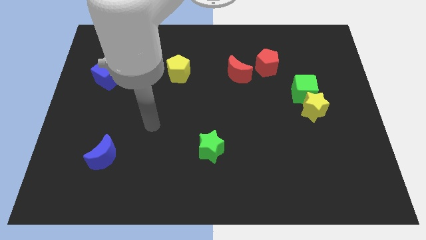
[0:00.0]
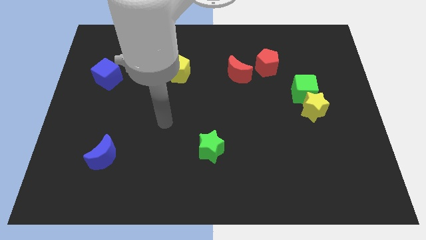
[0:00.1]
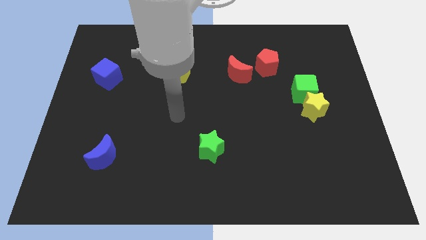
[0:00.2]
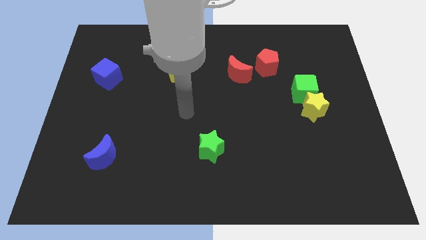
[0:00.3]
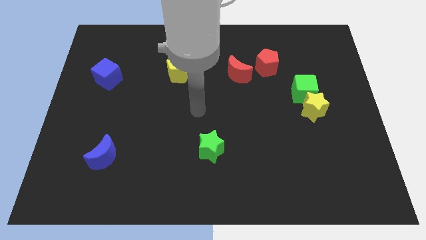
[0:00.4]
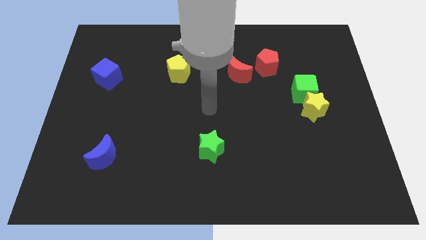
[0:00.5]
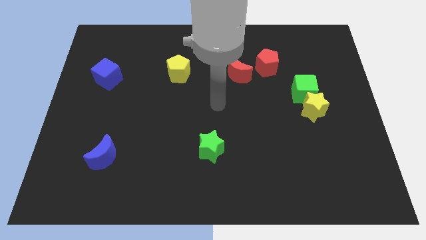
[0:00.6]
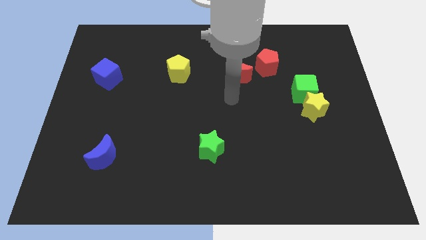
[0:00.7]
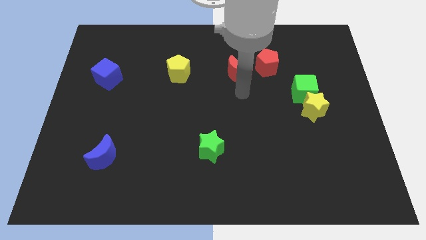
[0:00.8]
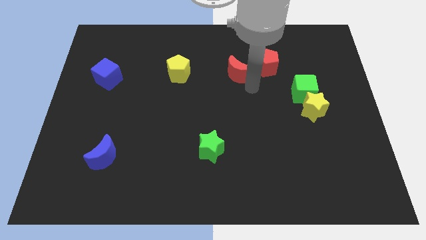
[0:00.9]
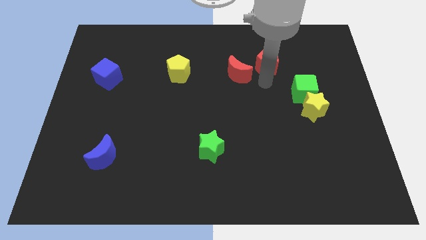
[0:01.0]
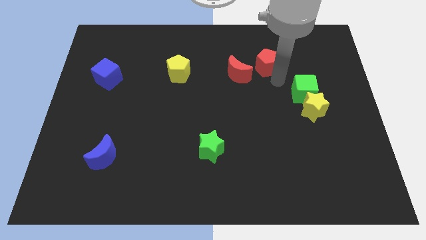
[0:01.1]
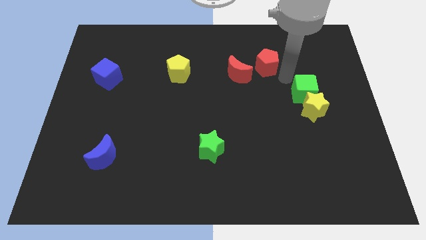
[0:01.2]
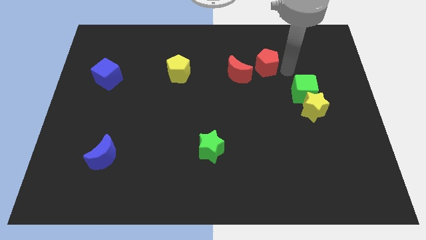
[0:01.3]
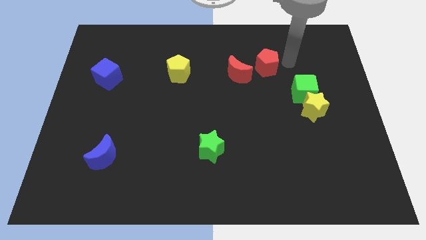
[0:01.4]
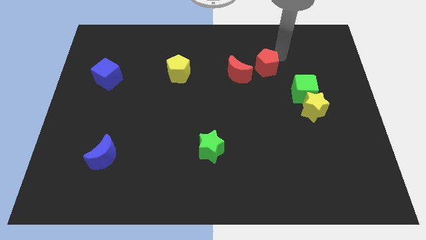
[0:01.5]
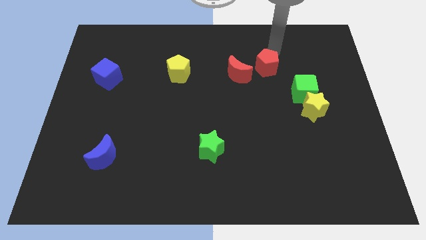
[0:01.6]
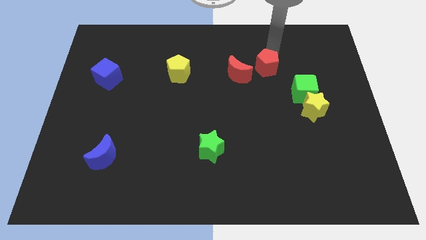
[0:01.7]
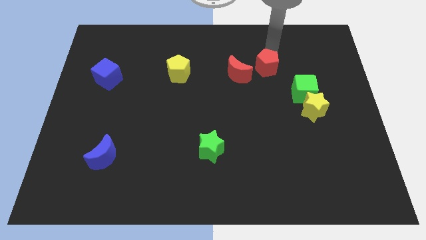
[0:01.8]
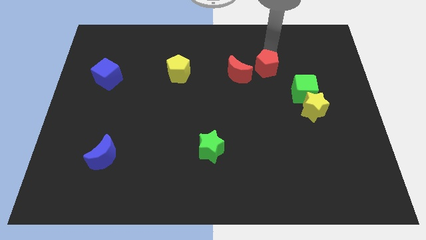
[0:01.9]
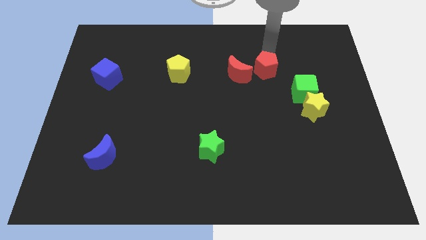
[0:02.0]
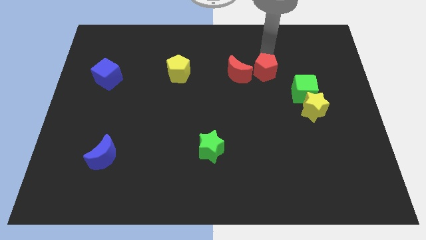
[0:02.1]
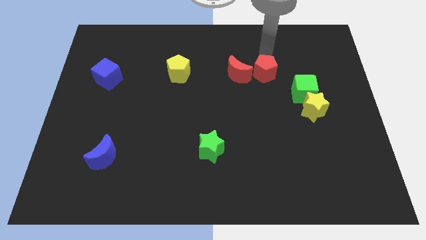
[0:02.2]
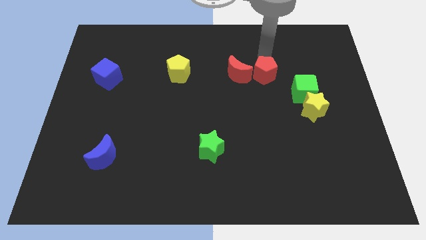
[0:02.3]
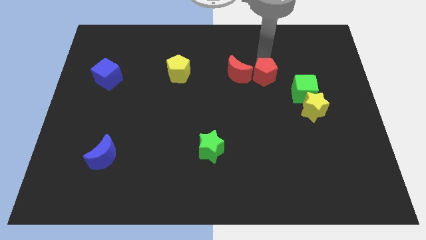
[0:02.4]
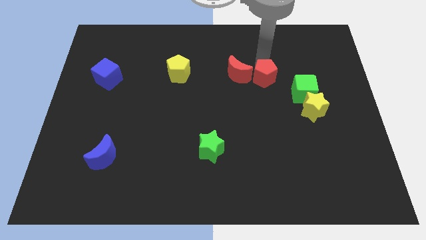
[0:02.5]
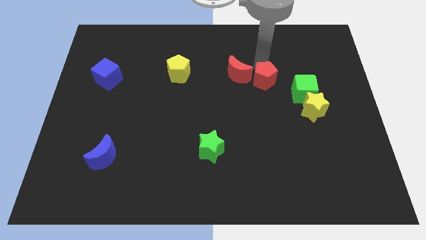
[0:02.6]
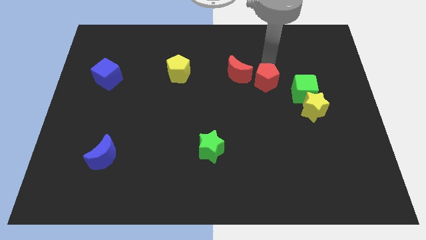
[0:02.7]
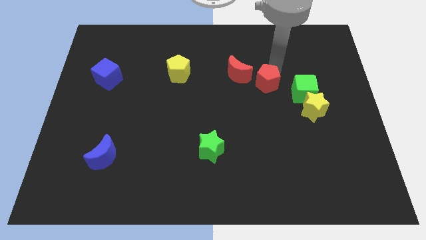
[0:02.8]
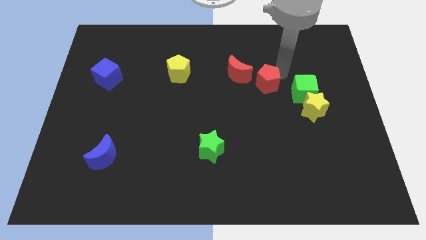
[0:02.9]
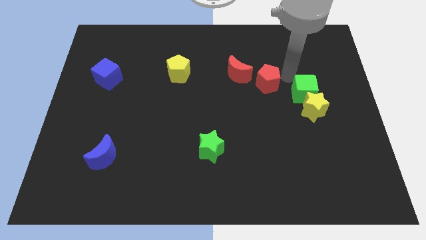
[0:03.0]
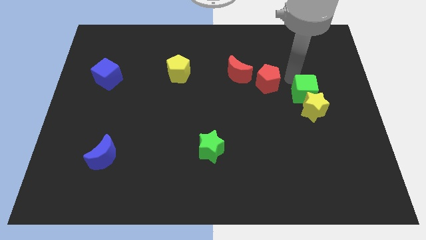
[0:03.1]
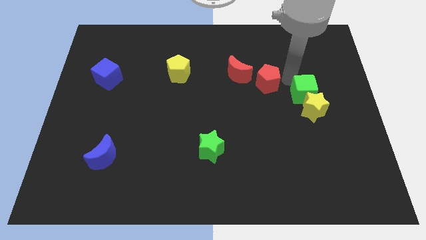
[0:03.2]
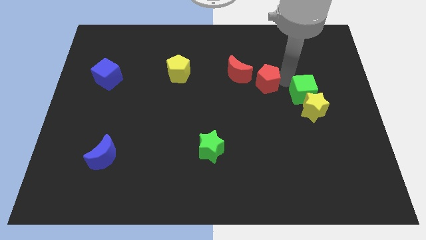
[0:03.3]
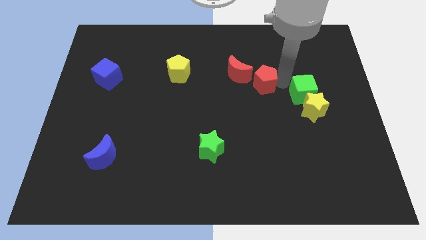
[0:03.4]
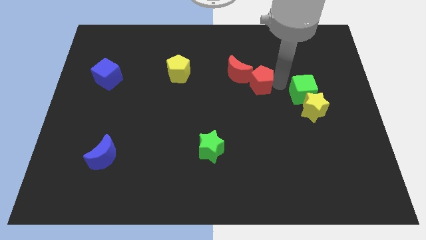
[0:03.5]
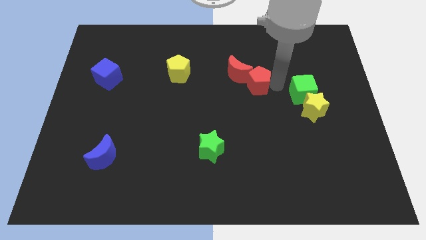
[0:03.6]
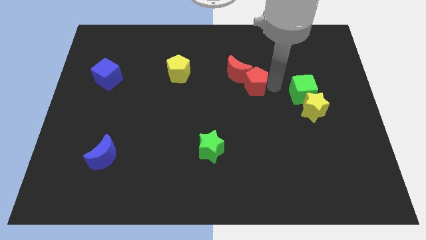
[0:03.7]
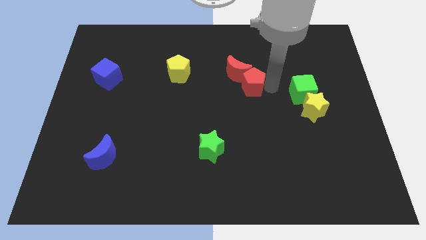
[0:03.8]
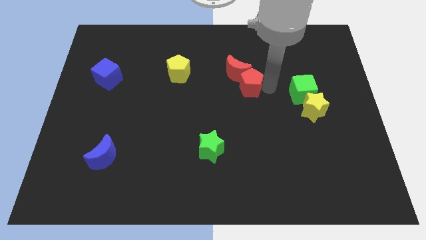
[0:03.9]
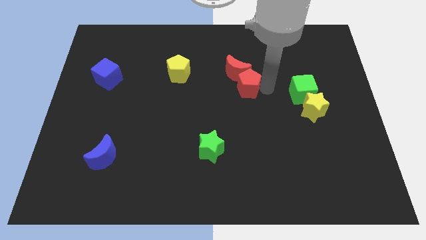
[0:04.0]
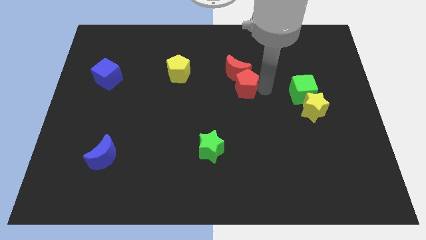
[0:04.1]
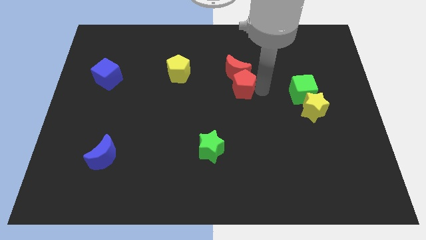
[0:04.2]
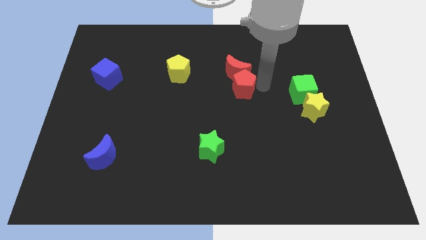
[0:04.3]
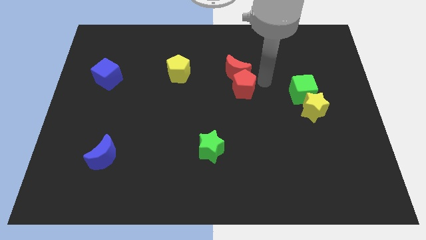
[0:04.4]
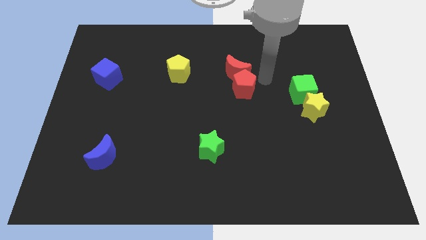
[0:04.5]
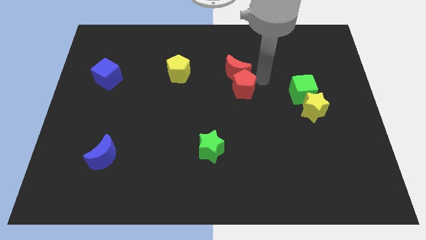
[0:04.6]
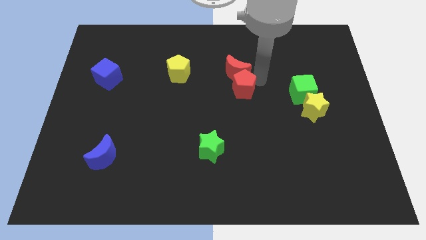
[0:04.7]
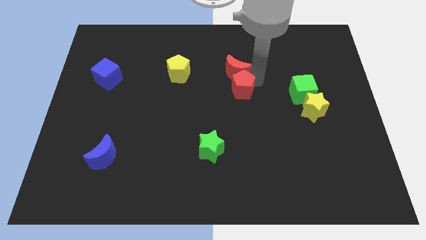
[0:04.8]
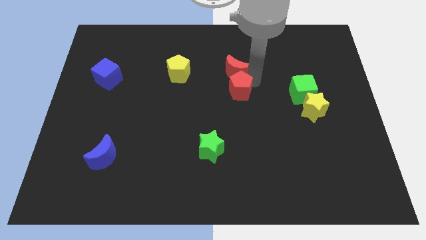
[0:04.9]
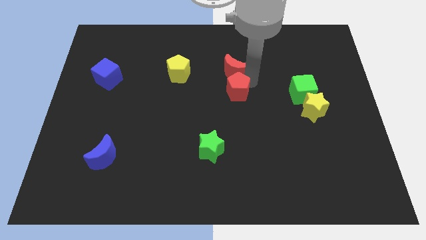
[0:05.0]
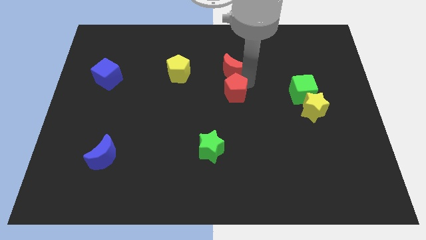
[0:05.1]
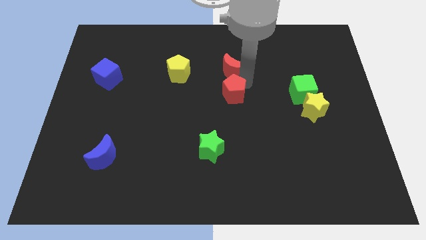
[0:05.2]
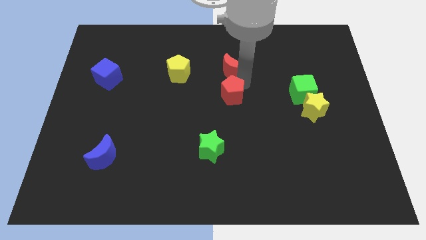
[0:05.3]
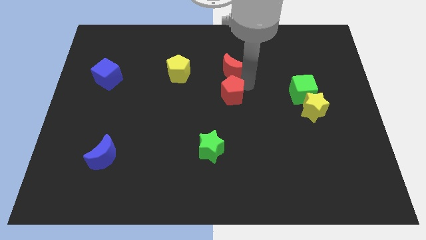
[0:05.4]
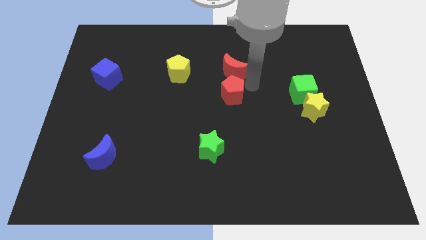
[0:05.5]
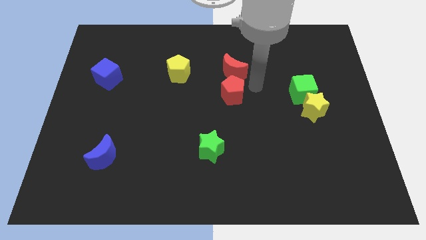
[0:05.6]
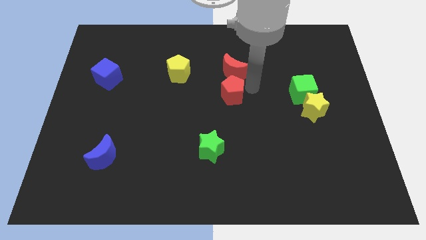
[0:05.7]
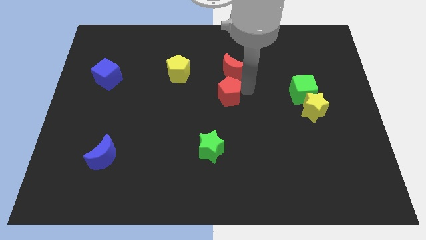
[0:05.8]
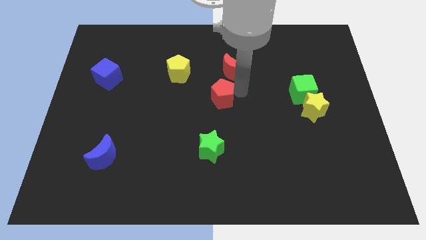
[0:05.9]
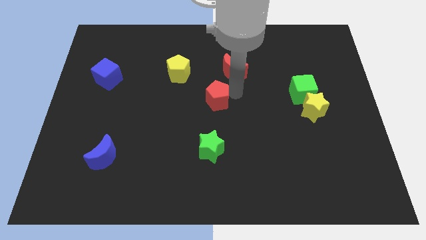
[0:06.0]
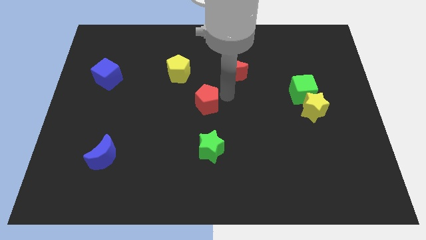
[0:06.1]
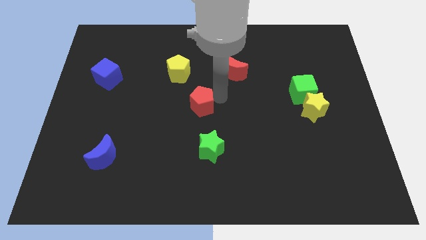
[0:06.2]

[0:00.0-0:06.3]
slide the red pentagon diagonally down and left

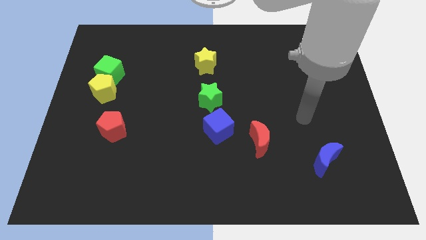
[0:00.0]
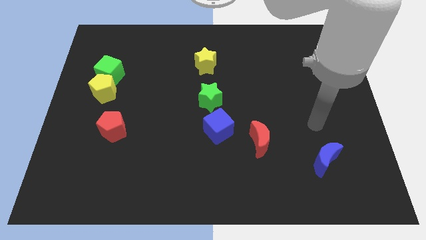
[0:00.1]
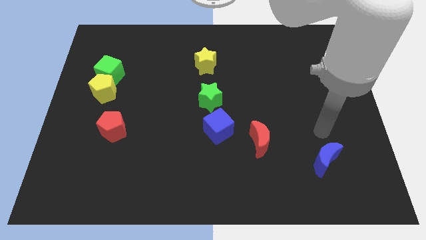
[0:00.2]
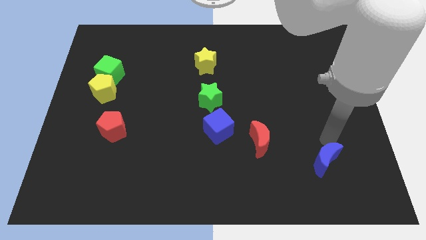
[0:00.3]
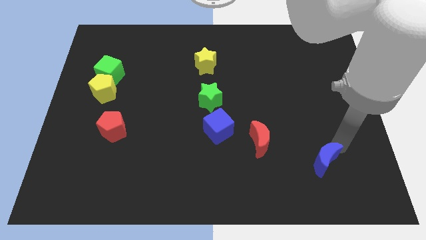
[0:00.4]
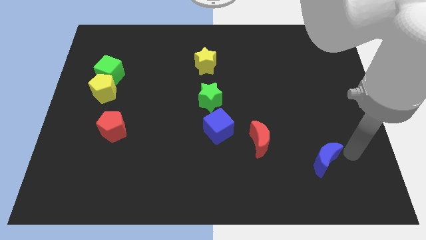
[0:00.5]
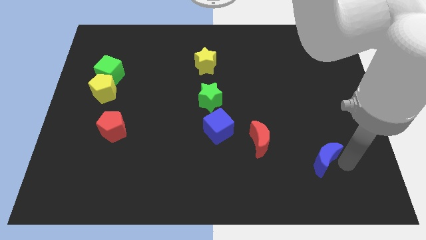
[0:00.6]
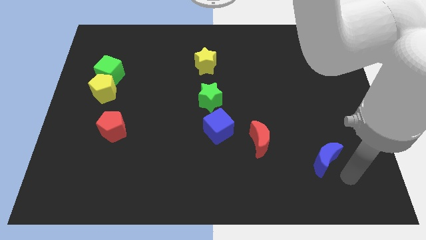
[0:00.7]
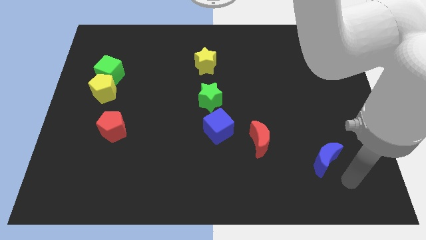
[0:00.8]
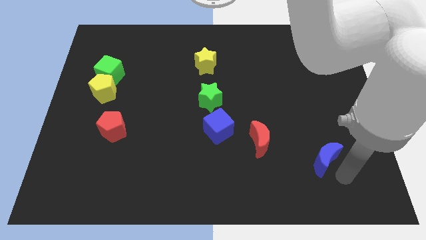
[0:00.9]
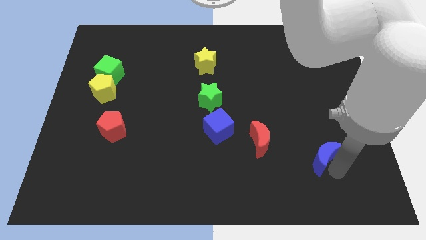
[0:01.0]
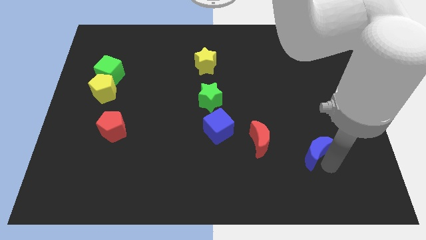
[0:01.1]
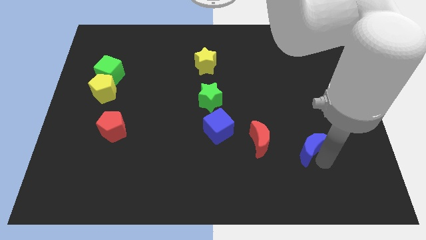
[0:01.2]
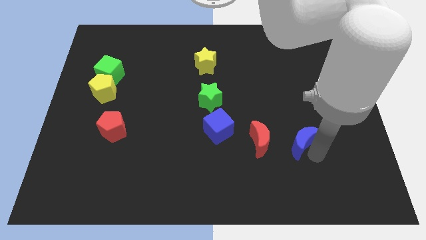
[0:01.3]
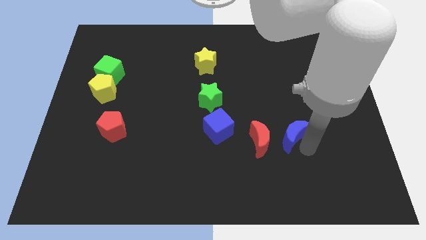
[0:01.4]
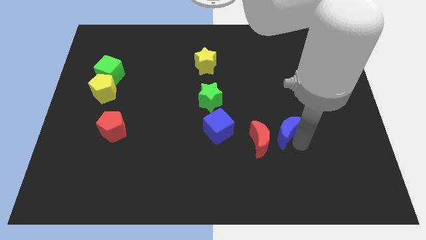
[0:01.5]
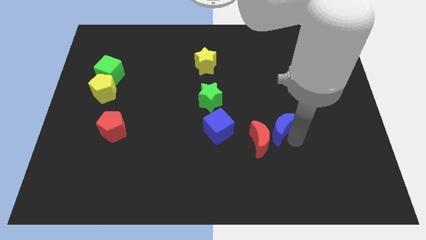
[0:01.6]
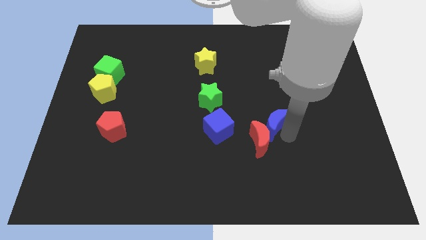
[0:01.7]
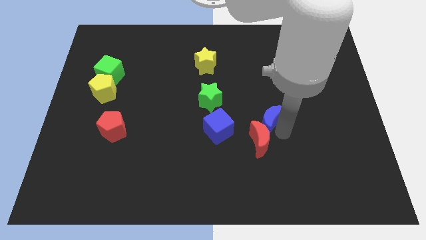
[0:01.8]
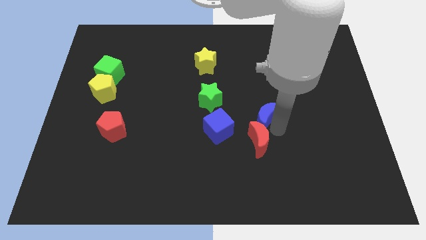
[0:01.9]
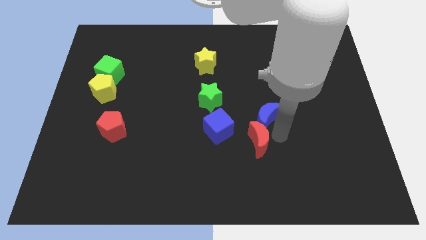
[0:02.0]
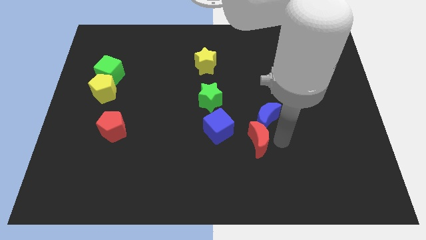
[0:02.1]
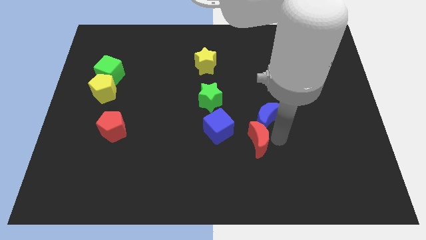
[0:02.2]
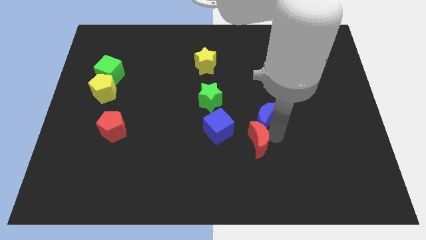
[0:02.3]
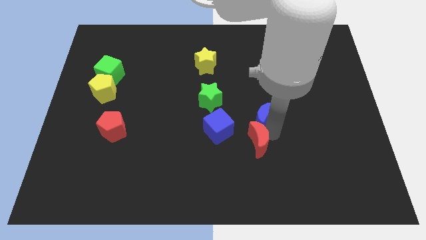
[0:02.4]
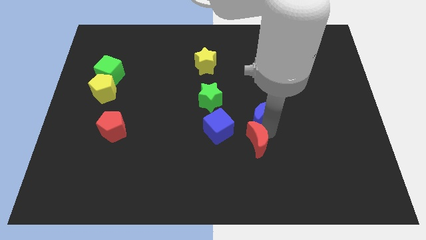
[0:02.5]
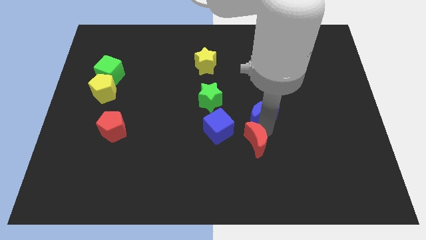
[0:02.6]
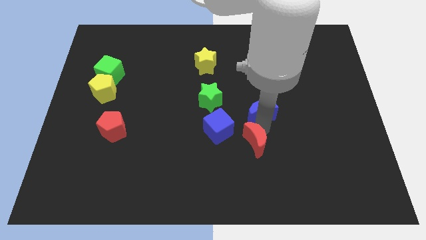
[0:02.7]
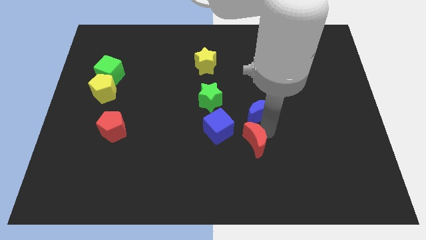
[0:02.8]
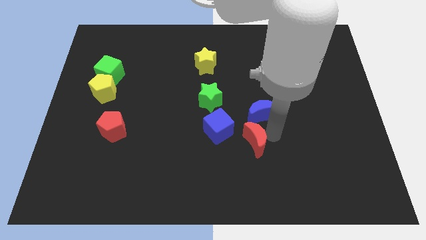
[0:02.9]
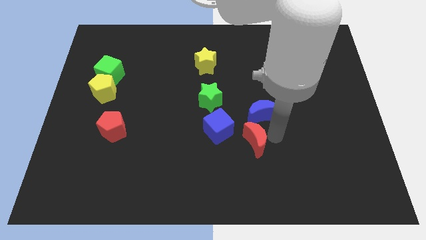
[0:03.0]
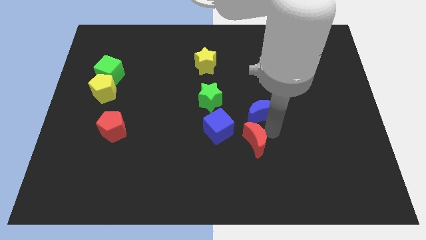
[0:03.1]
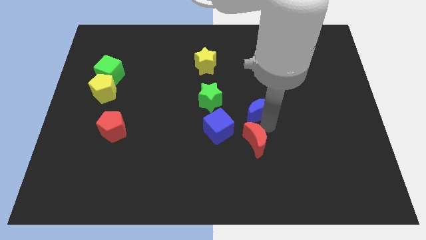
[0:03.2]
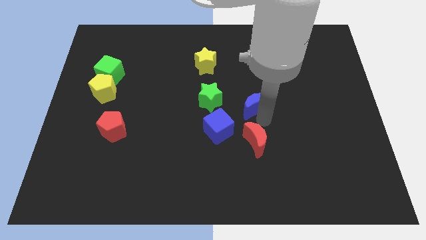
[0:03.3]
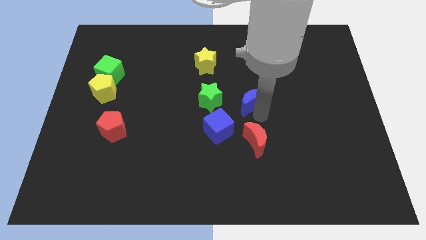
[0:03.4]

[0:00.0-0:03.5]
push the blue moon up and then left
